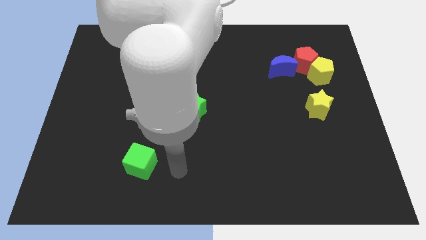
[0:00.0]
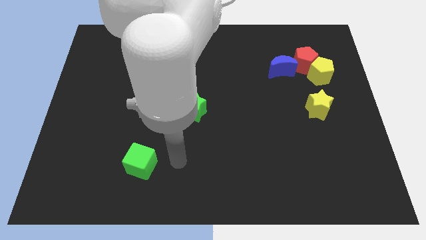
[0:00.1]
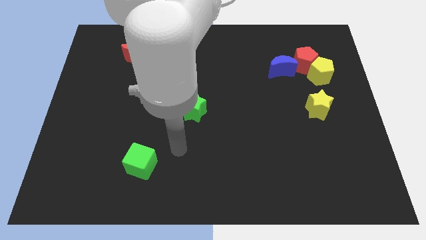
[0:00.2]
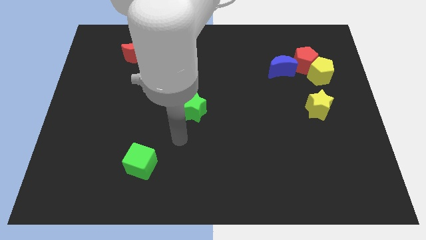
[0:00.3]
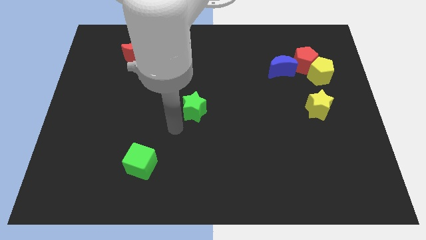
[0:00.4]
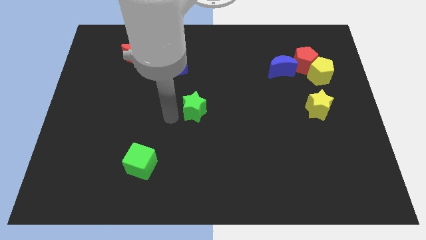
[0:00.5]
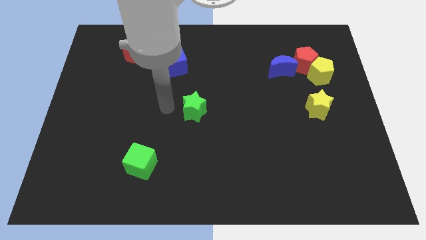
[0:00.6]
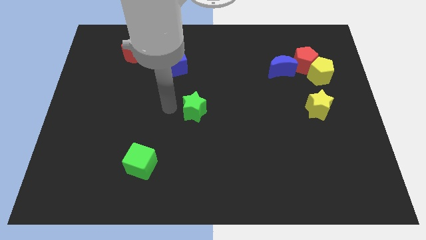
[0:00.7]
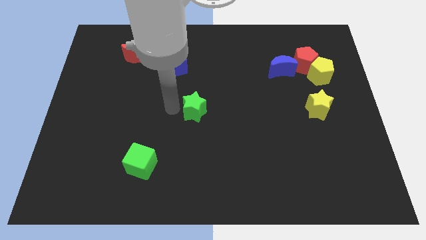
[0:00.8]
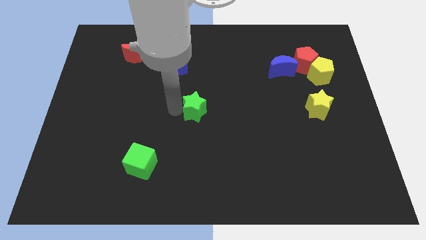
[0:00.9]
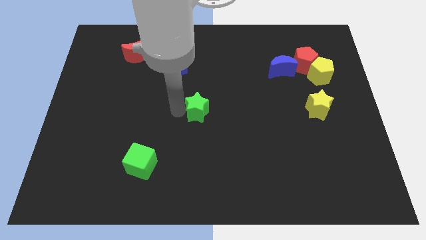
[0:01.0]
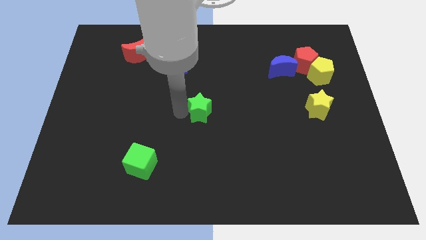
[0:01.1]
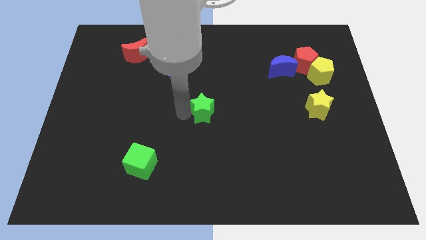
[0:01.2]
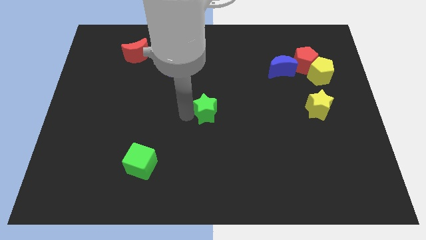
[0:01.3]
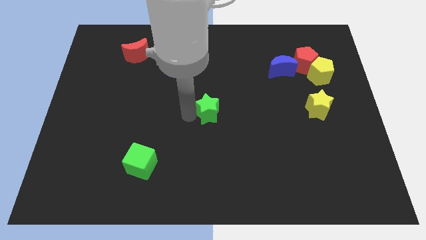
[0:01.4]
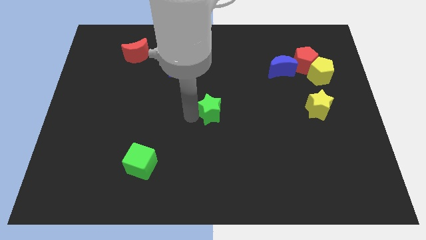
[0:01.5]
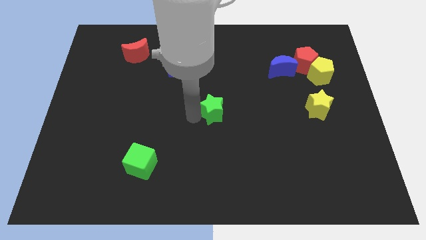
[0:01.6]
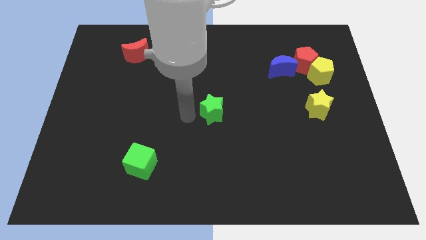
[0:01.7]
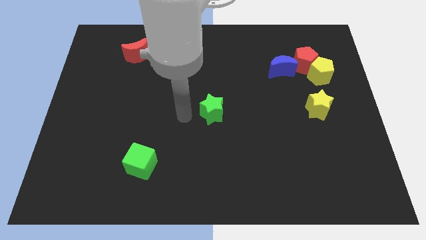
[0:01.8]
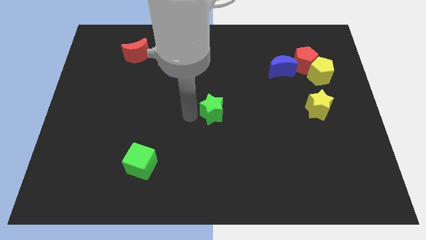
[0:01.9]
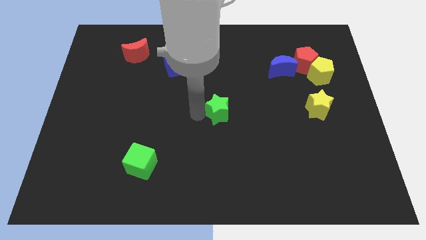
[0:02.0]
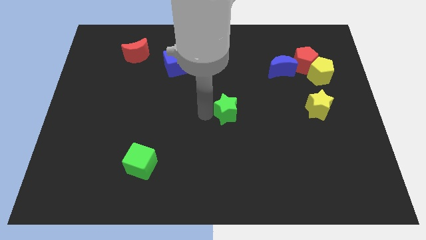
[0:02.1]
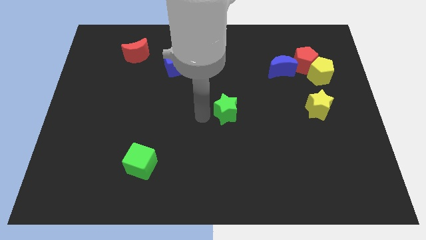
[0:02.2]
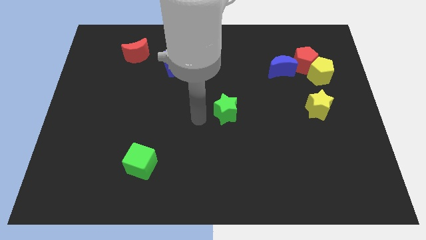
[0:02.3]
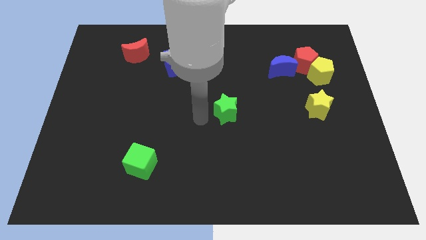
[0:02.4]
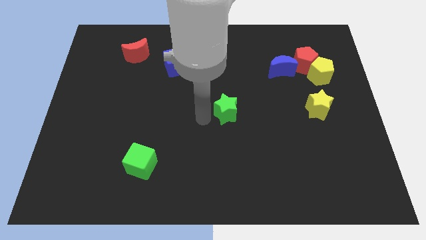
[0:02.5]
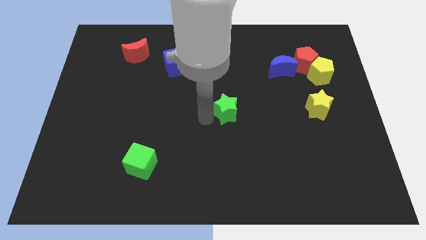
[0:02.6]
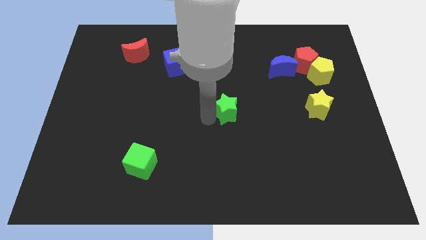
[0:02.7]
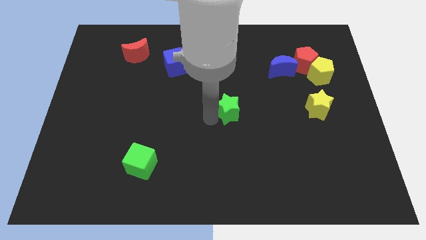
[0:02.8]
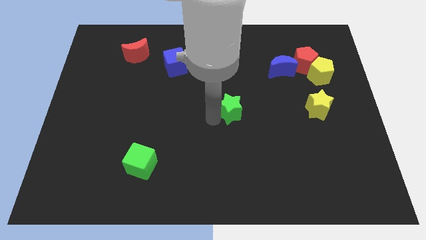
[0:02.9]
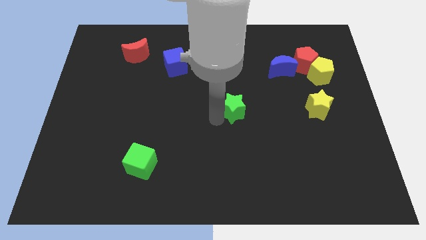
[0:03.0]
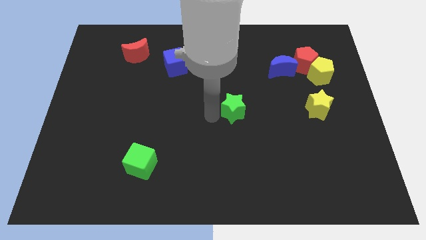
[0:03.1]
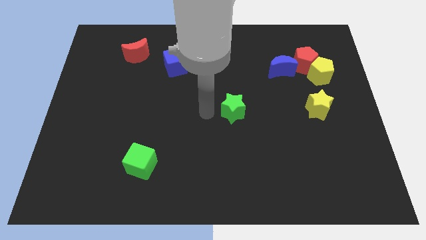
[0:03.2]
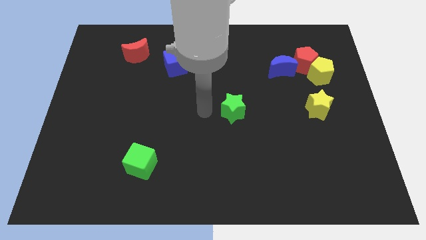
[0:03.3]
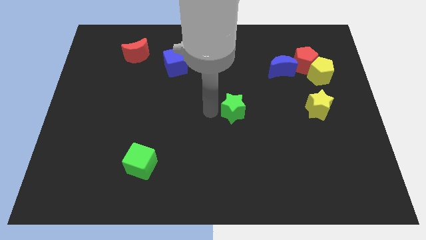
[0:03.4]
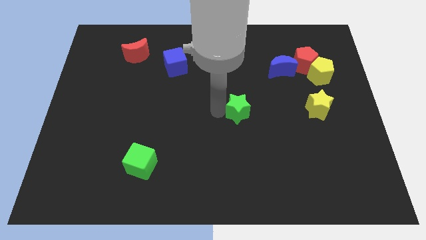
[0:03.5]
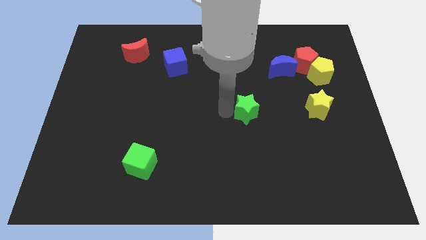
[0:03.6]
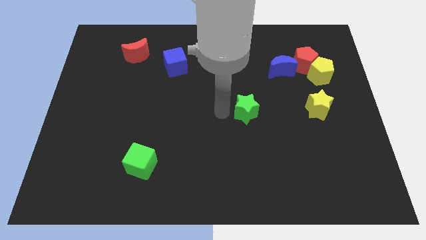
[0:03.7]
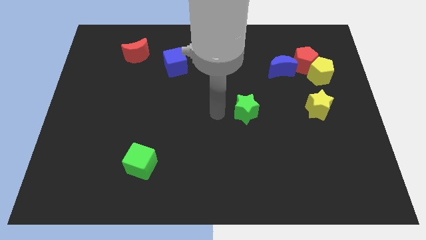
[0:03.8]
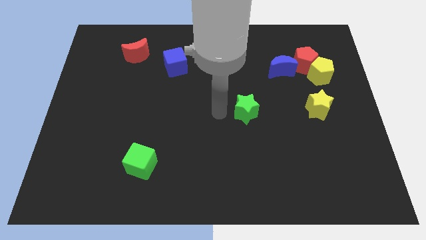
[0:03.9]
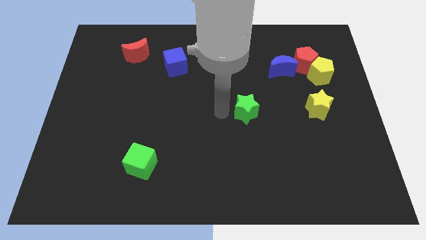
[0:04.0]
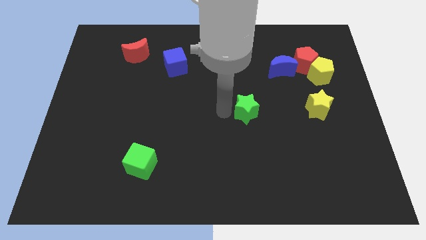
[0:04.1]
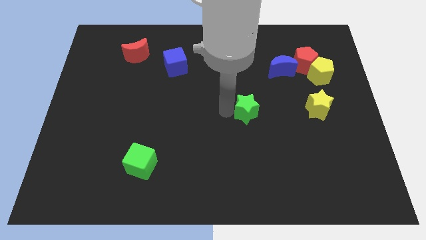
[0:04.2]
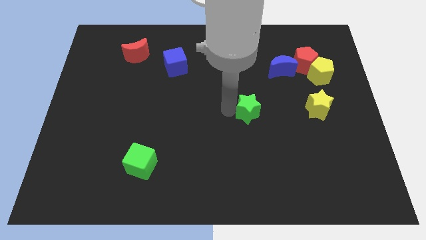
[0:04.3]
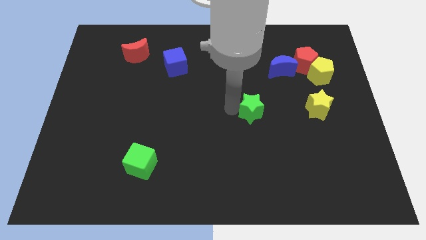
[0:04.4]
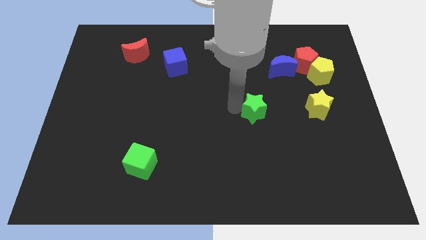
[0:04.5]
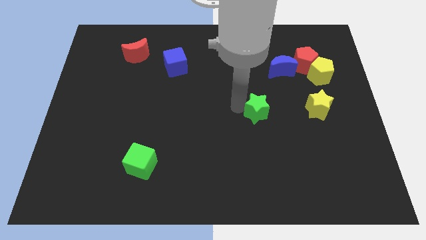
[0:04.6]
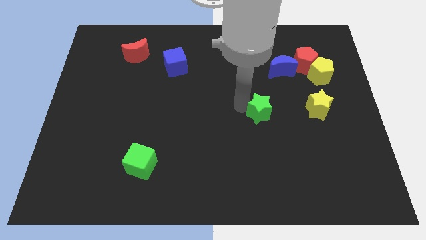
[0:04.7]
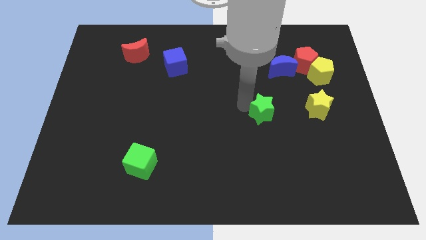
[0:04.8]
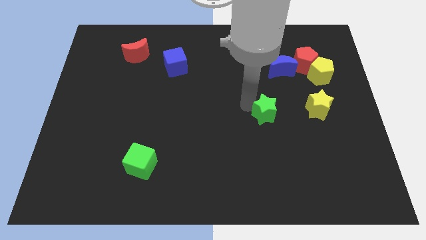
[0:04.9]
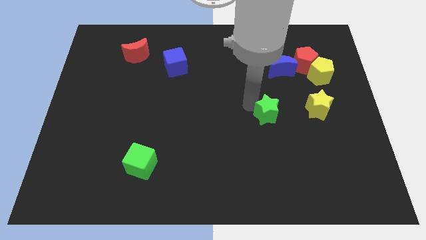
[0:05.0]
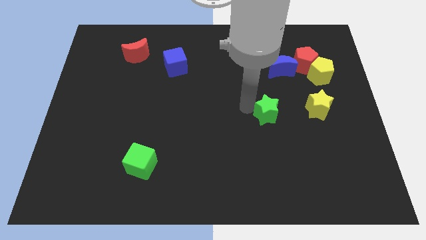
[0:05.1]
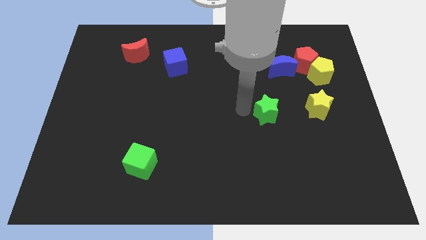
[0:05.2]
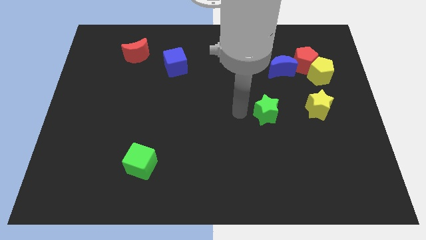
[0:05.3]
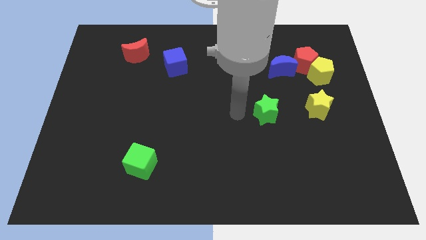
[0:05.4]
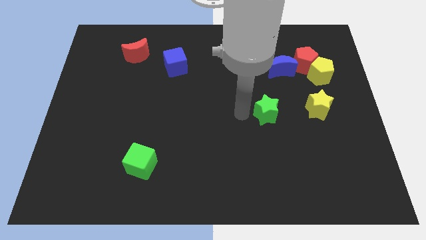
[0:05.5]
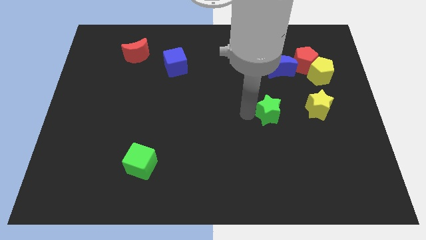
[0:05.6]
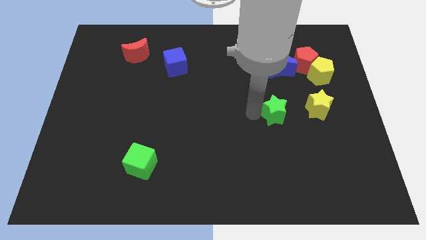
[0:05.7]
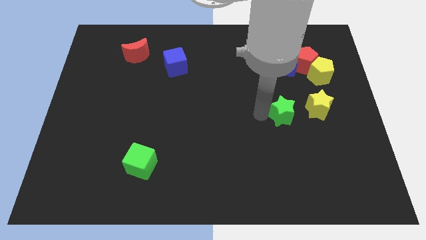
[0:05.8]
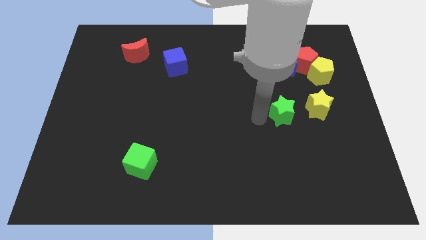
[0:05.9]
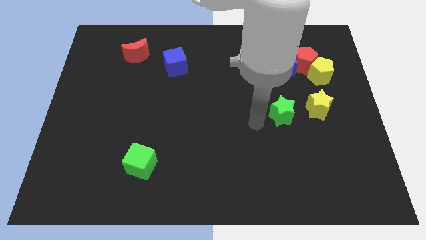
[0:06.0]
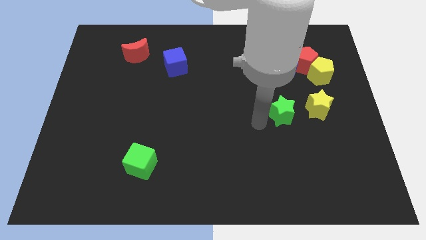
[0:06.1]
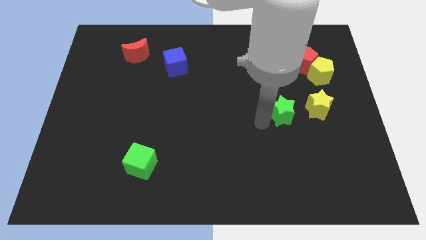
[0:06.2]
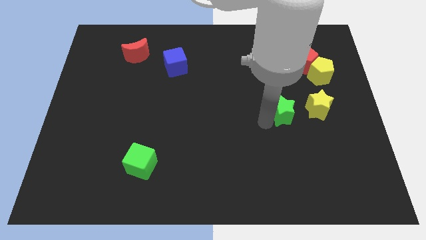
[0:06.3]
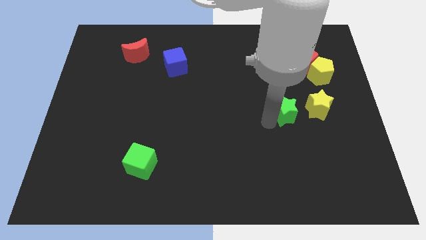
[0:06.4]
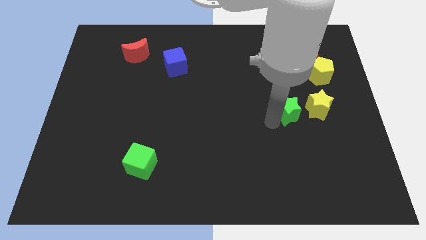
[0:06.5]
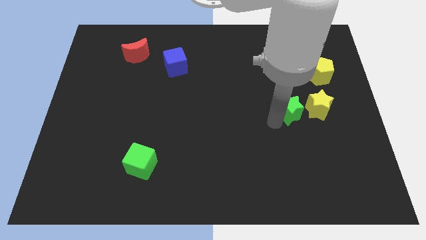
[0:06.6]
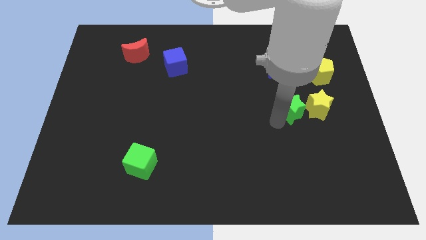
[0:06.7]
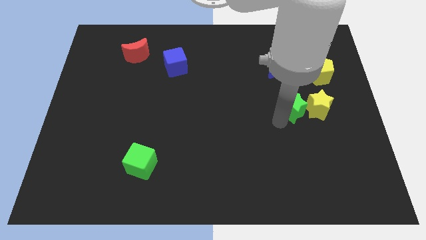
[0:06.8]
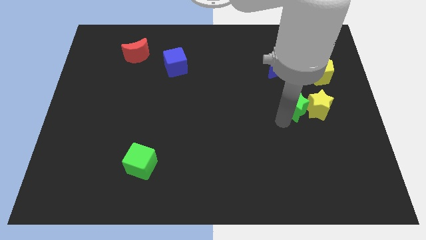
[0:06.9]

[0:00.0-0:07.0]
put the green star towards the yellow star

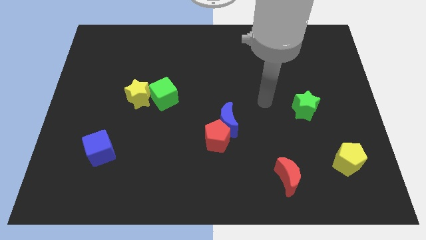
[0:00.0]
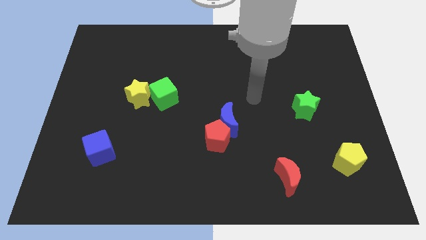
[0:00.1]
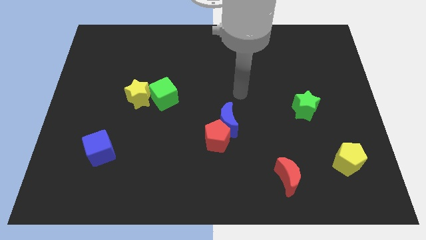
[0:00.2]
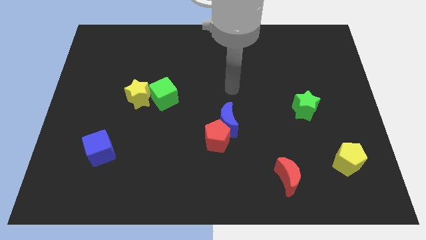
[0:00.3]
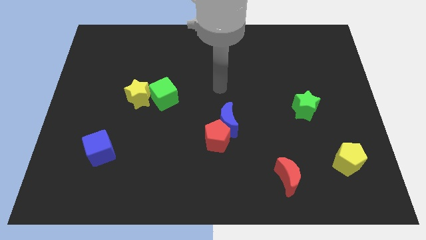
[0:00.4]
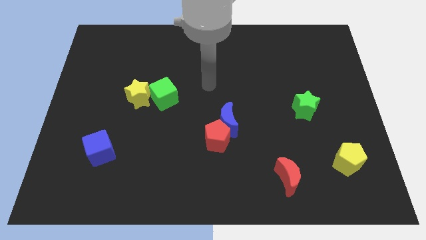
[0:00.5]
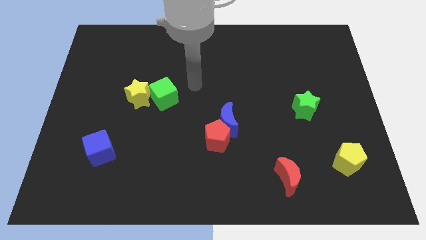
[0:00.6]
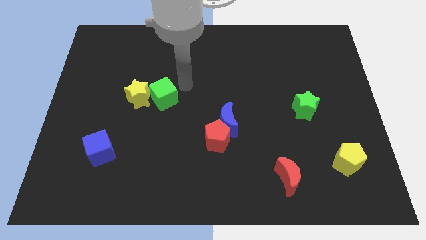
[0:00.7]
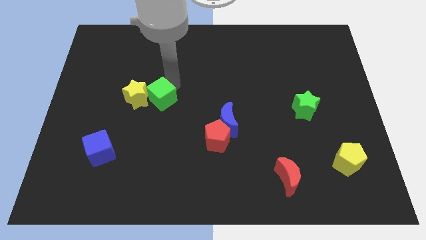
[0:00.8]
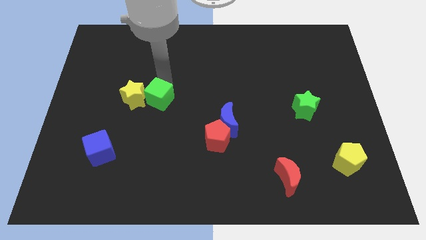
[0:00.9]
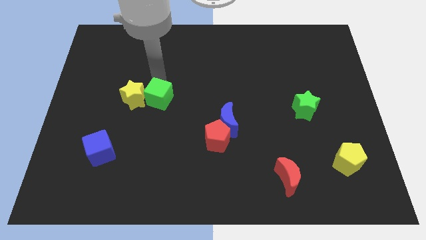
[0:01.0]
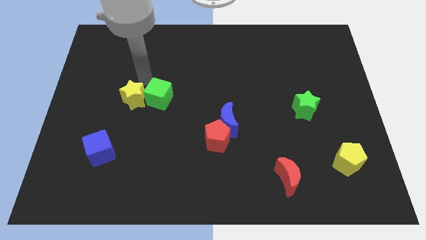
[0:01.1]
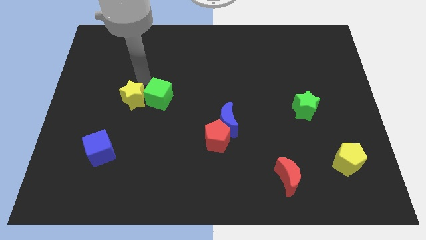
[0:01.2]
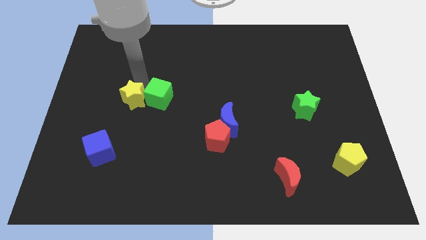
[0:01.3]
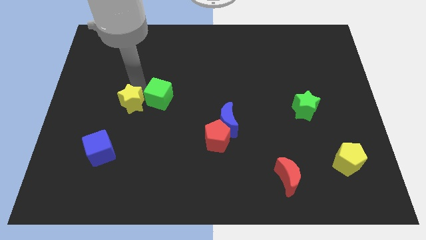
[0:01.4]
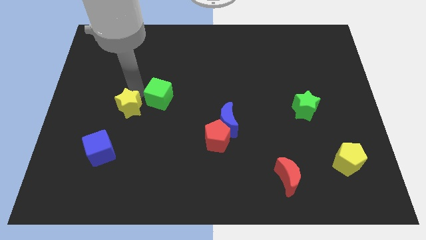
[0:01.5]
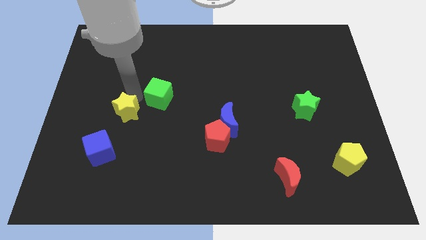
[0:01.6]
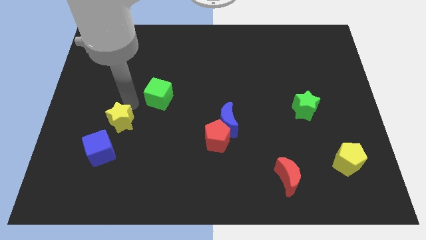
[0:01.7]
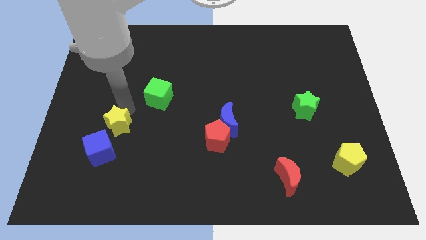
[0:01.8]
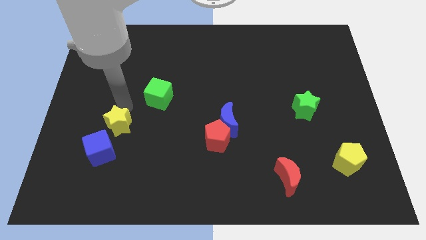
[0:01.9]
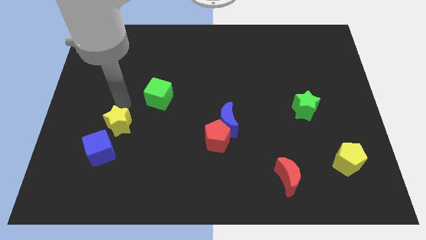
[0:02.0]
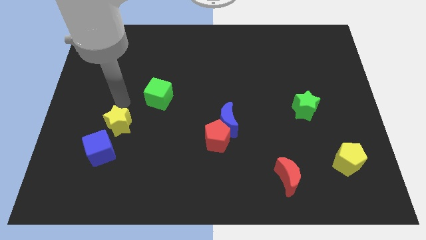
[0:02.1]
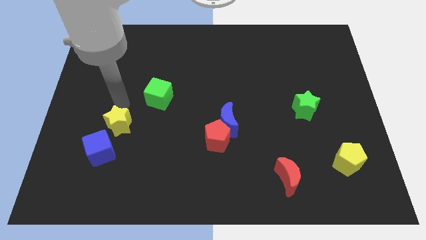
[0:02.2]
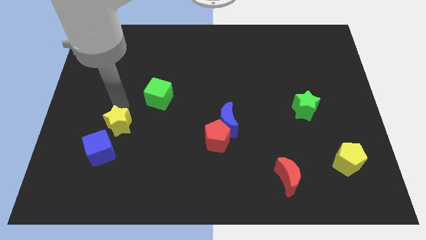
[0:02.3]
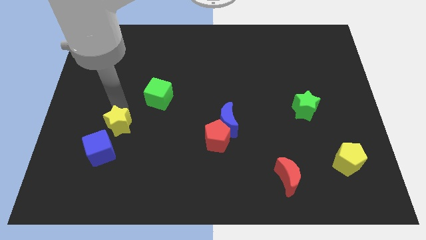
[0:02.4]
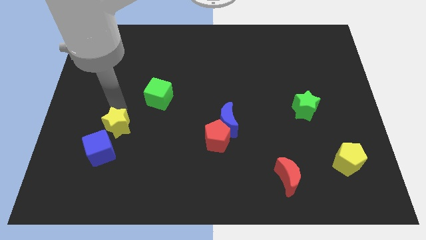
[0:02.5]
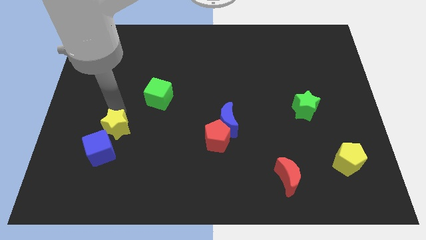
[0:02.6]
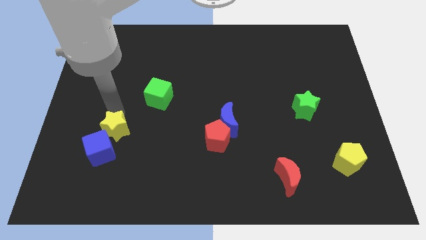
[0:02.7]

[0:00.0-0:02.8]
push the yellow star to the blue cube
